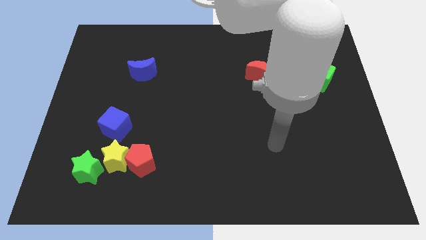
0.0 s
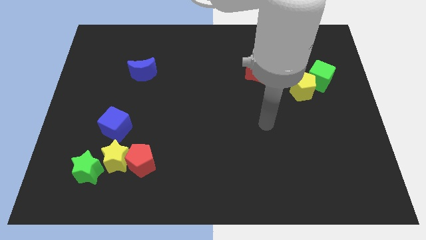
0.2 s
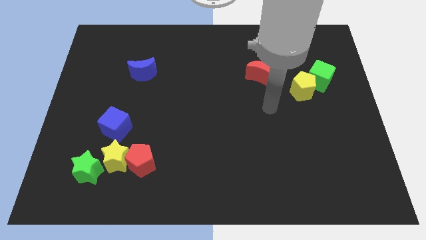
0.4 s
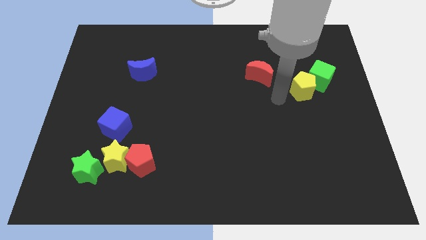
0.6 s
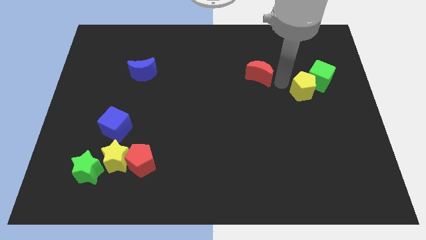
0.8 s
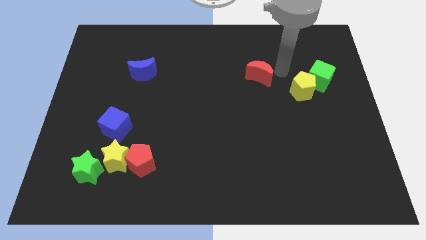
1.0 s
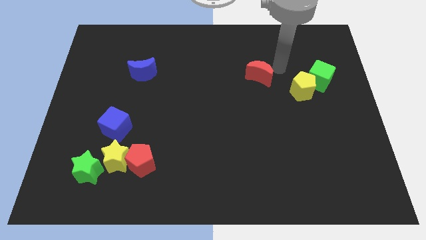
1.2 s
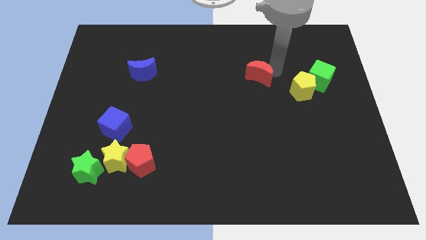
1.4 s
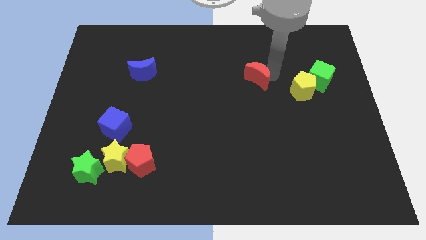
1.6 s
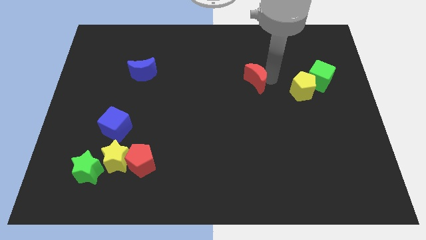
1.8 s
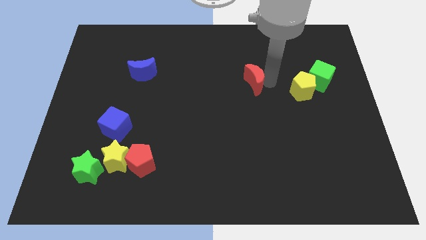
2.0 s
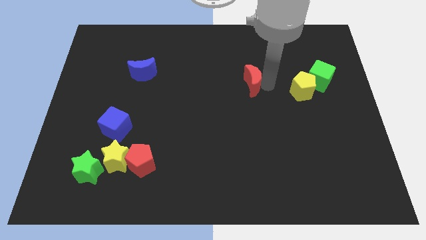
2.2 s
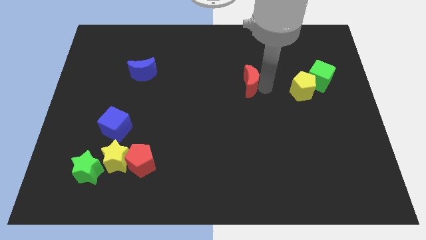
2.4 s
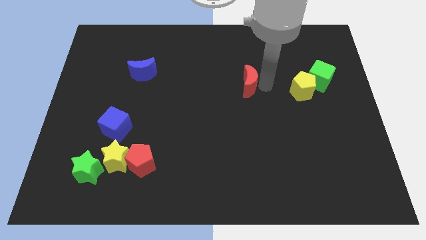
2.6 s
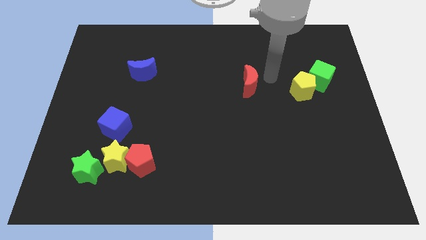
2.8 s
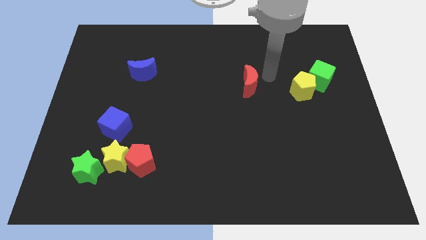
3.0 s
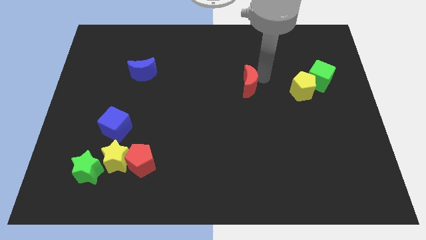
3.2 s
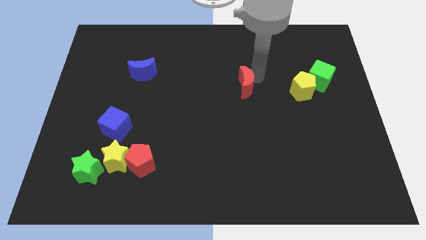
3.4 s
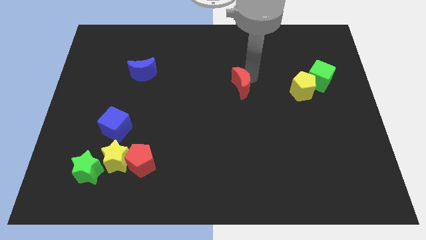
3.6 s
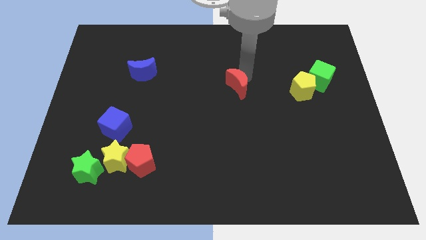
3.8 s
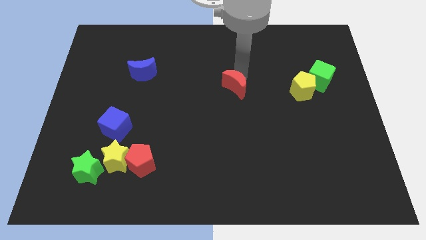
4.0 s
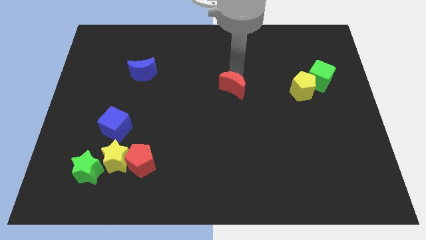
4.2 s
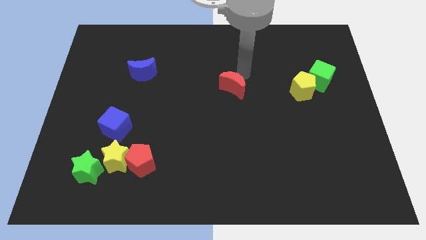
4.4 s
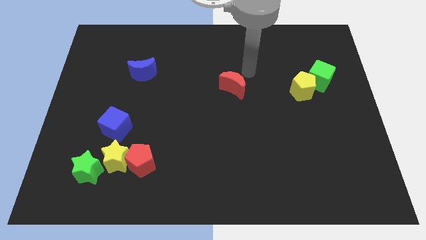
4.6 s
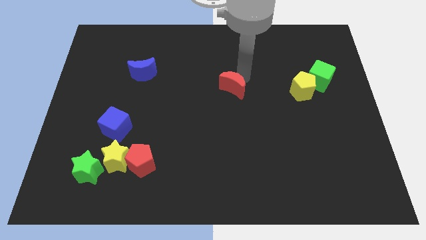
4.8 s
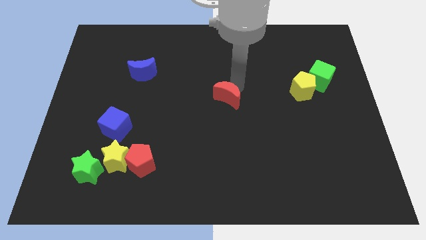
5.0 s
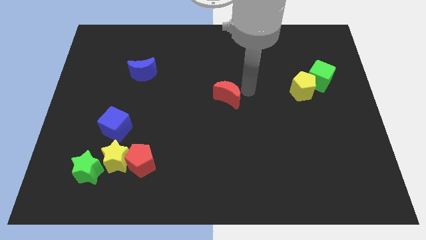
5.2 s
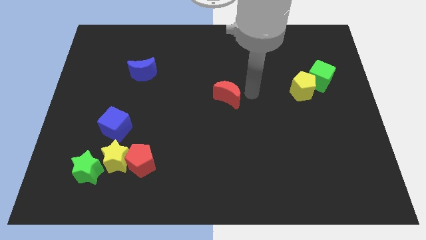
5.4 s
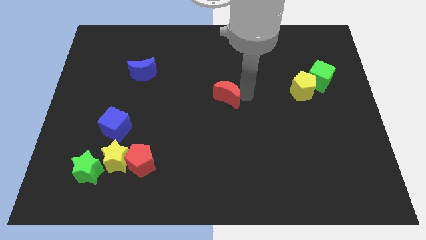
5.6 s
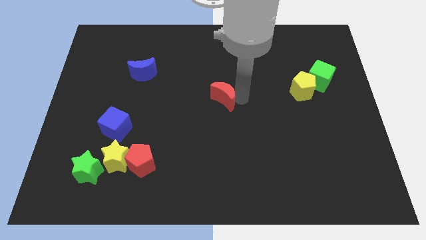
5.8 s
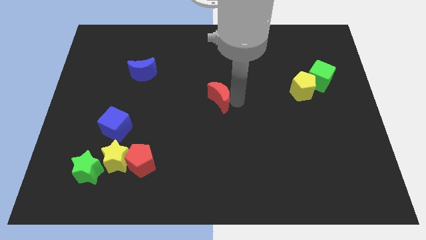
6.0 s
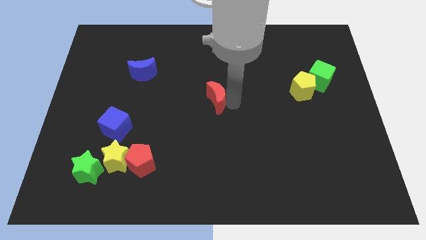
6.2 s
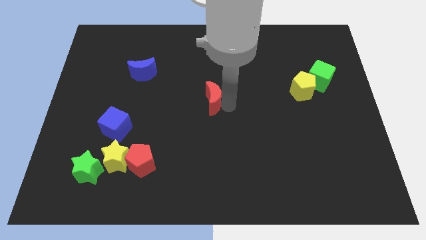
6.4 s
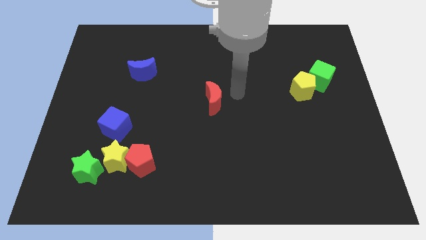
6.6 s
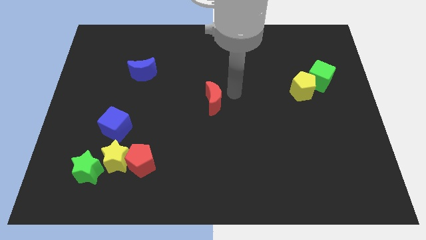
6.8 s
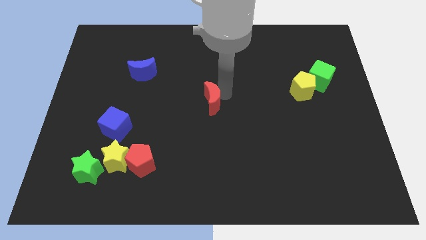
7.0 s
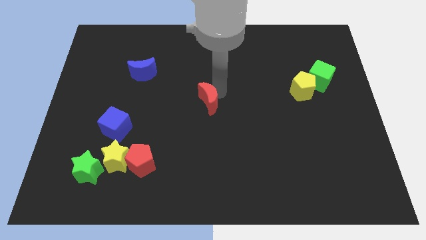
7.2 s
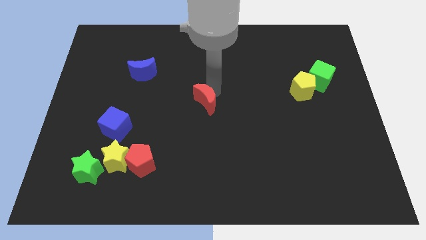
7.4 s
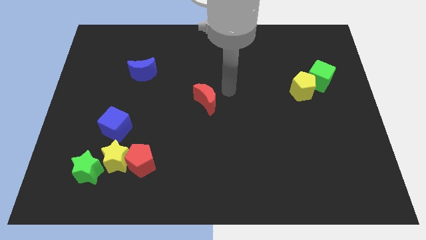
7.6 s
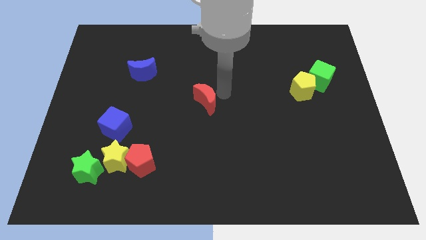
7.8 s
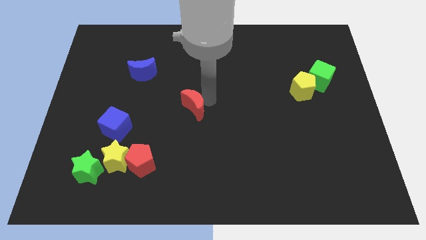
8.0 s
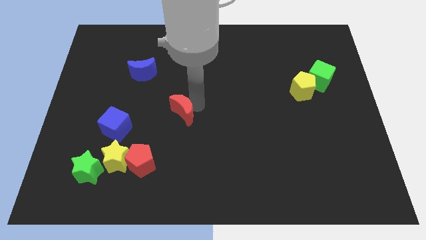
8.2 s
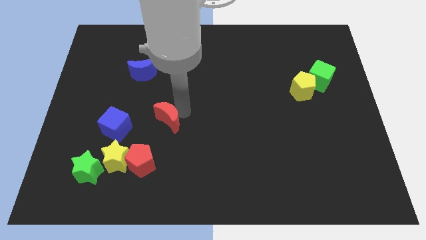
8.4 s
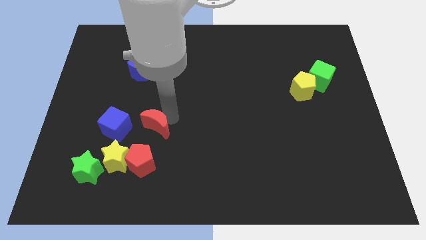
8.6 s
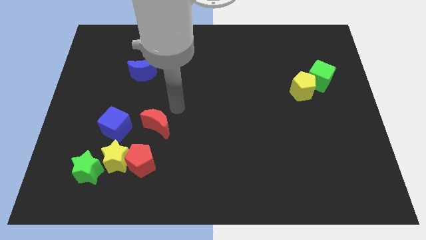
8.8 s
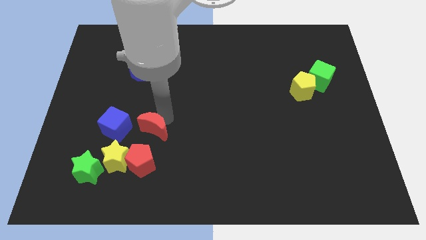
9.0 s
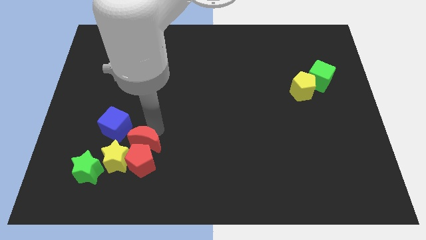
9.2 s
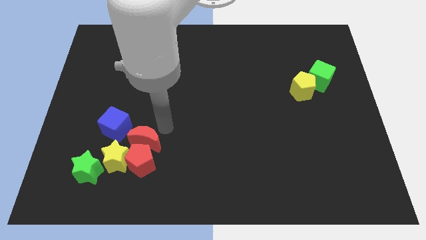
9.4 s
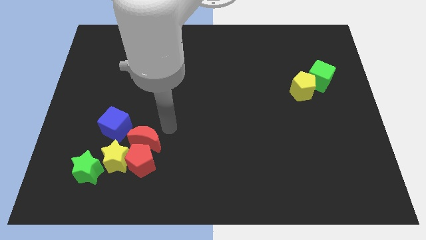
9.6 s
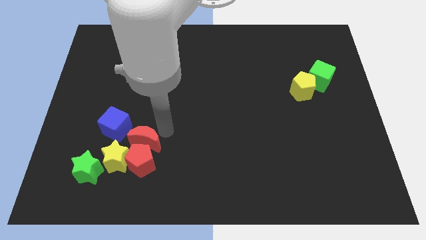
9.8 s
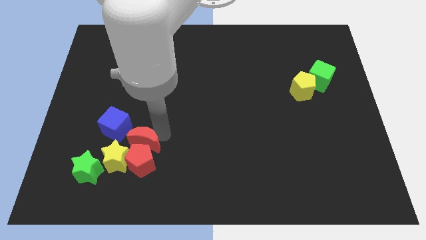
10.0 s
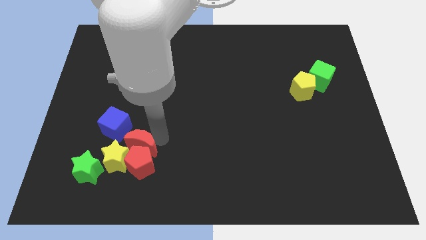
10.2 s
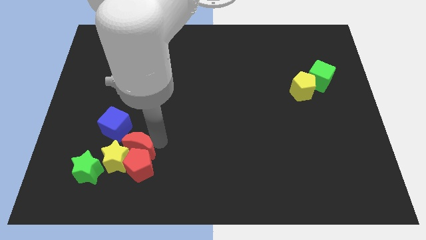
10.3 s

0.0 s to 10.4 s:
push the red moon towards the yellow star

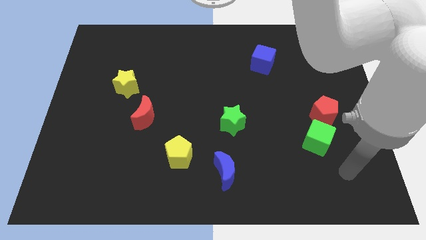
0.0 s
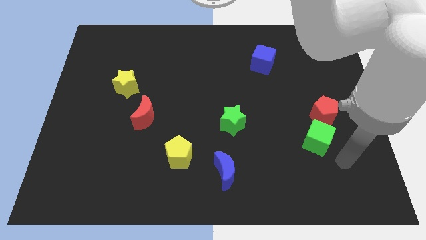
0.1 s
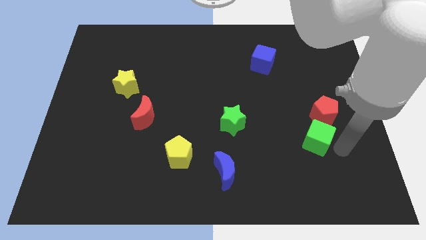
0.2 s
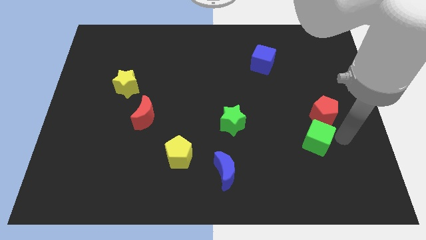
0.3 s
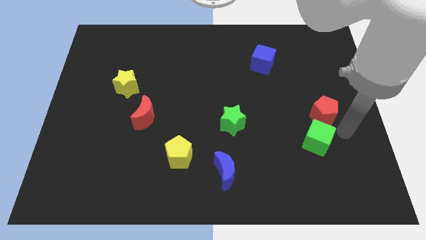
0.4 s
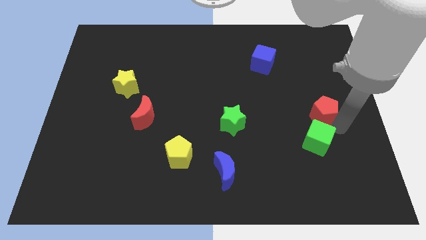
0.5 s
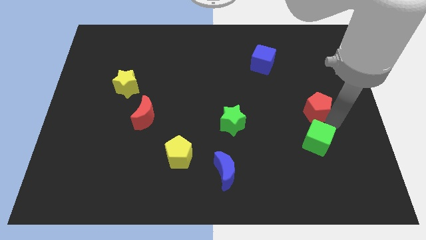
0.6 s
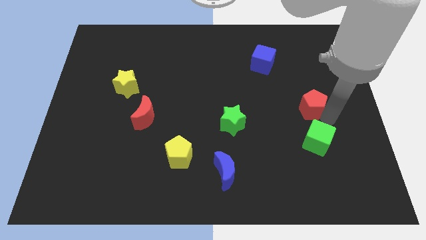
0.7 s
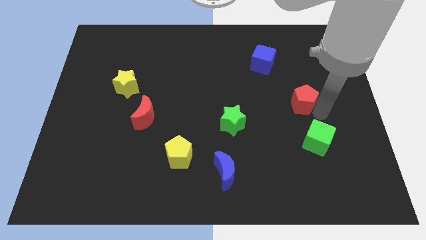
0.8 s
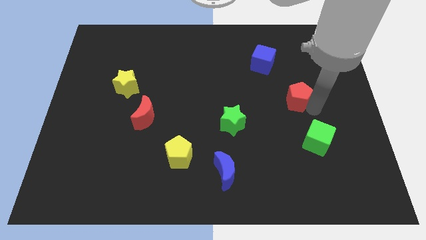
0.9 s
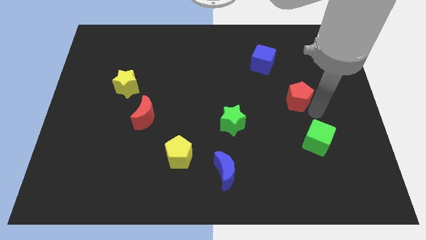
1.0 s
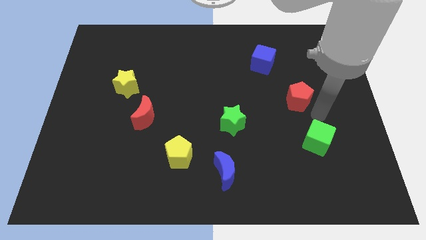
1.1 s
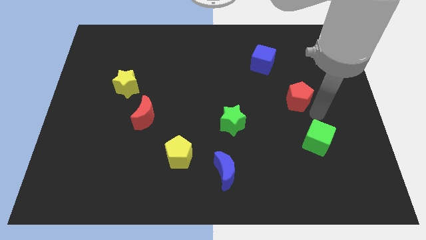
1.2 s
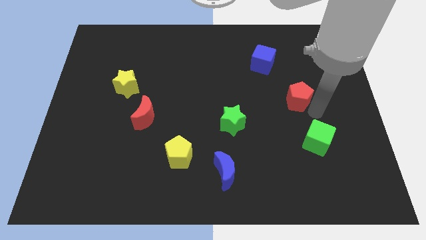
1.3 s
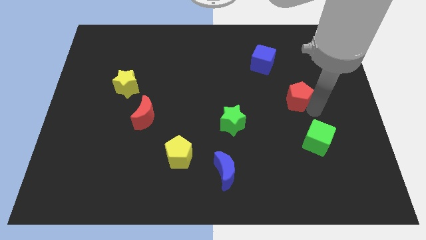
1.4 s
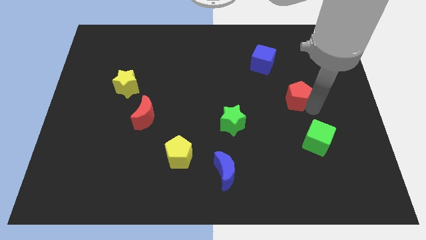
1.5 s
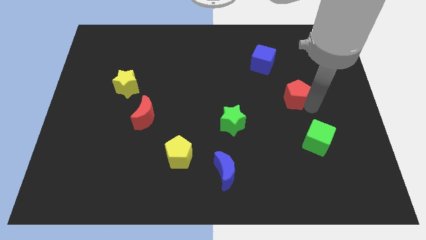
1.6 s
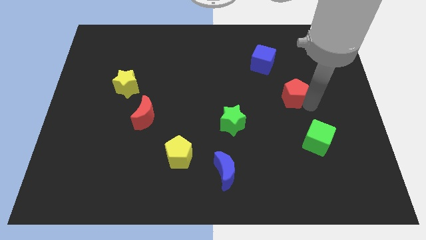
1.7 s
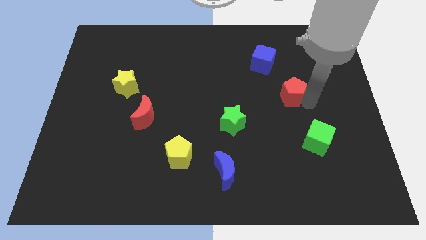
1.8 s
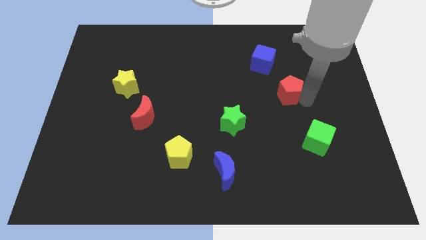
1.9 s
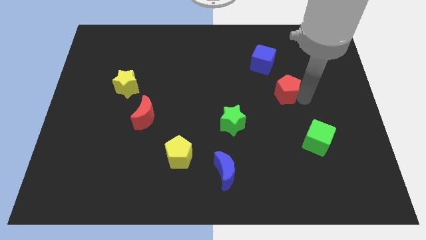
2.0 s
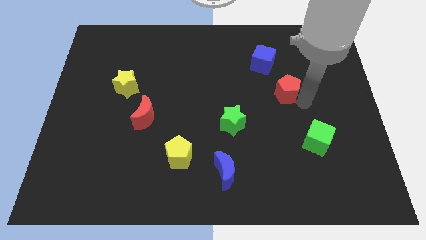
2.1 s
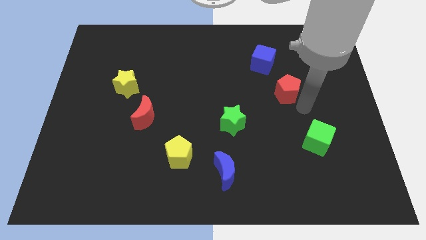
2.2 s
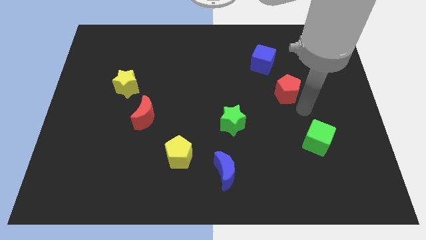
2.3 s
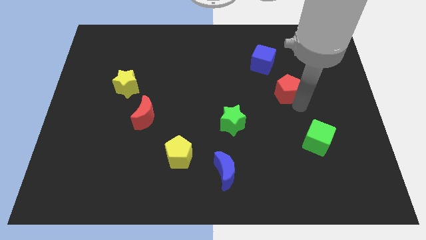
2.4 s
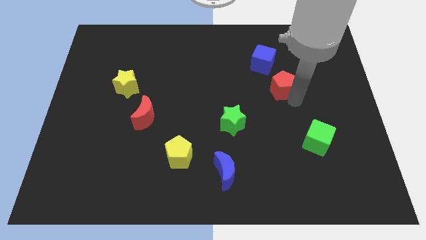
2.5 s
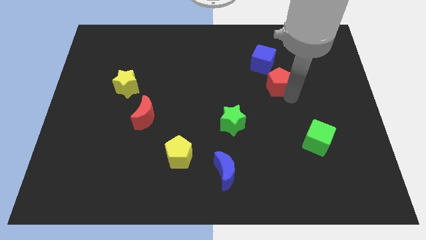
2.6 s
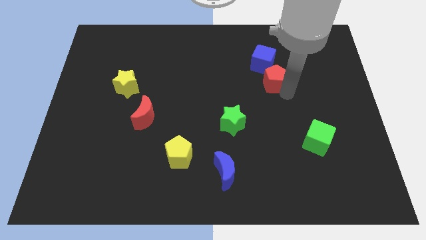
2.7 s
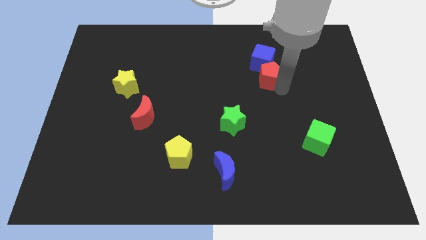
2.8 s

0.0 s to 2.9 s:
push the red pentagon to the blue cube

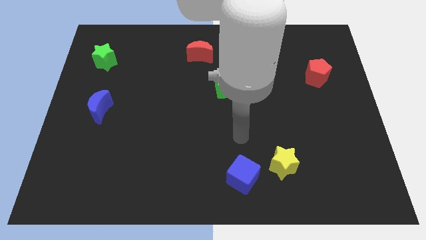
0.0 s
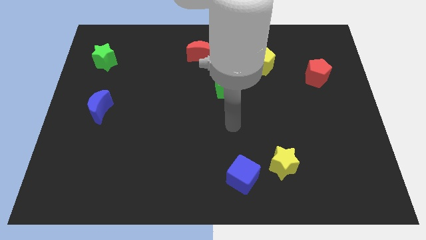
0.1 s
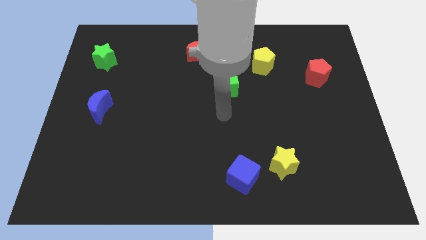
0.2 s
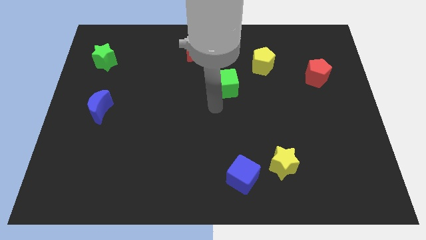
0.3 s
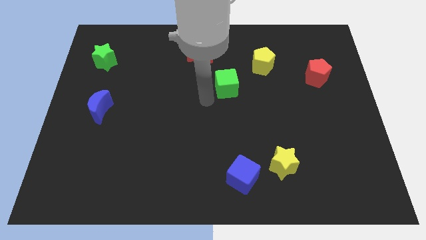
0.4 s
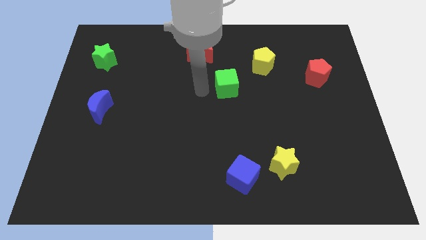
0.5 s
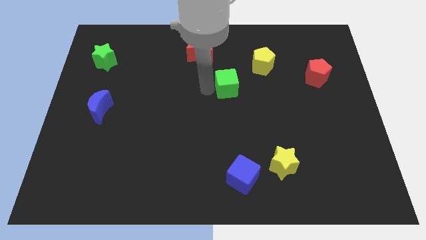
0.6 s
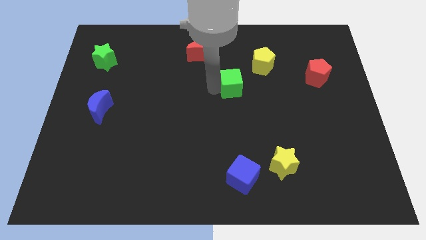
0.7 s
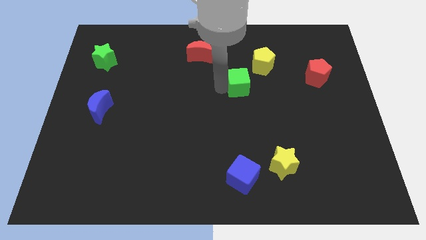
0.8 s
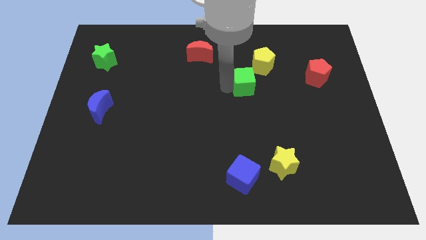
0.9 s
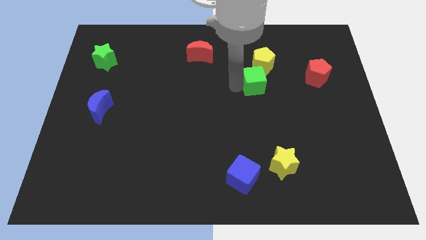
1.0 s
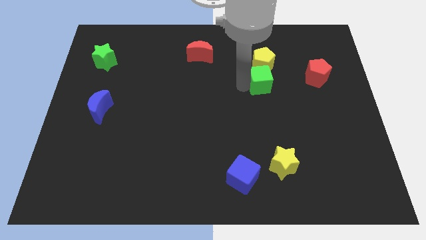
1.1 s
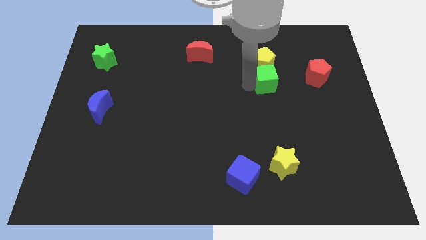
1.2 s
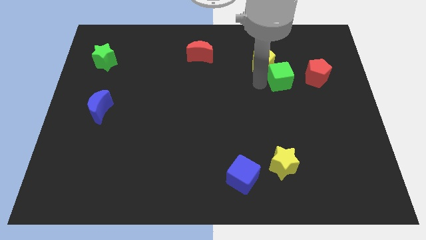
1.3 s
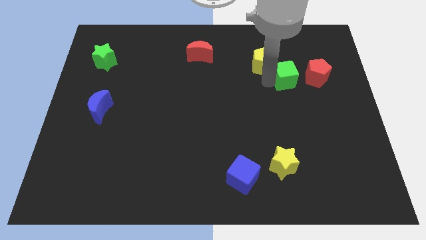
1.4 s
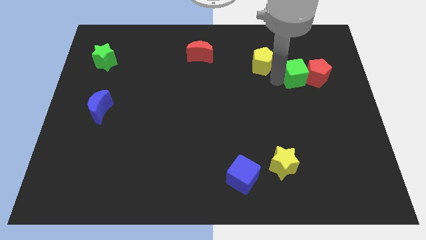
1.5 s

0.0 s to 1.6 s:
put the green cube to the red pentagon
